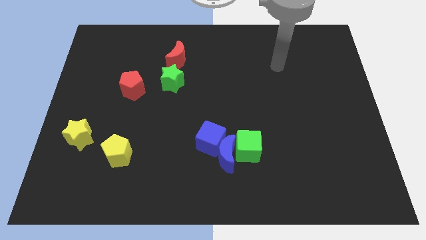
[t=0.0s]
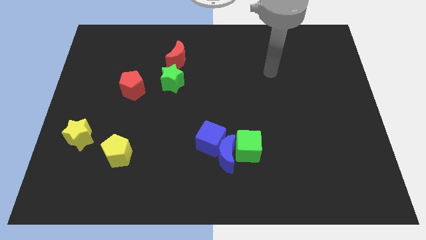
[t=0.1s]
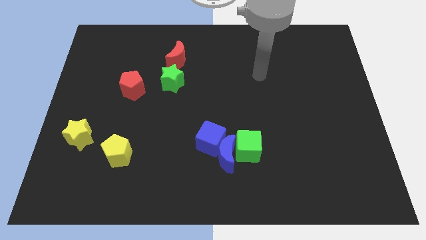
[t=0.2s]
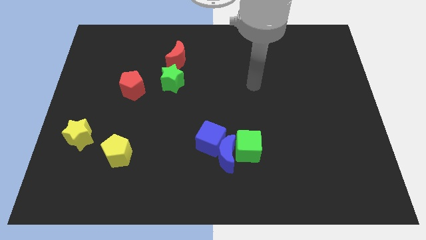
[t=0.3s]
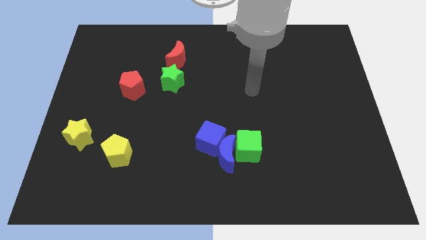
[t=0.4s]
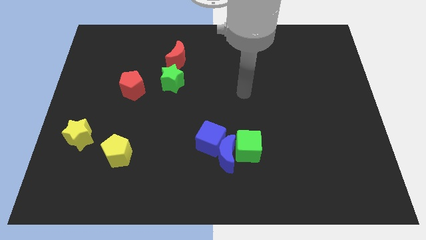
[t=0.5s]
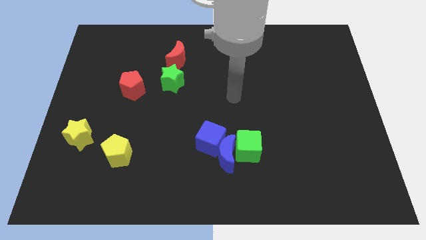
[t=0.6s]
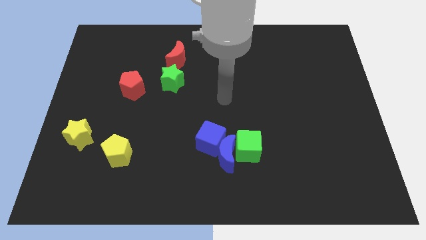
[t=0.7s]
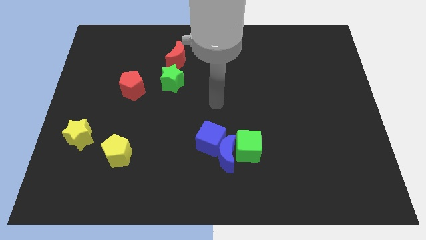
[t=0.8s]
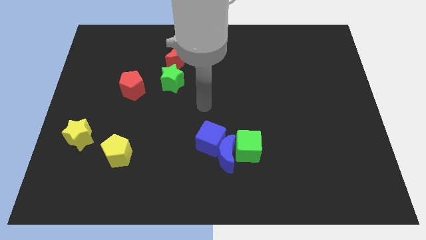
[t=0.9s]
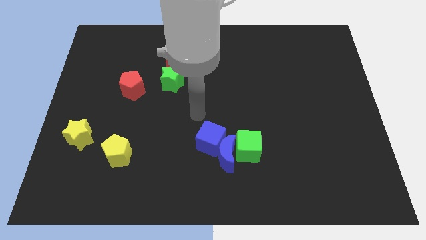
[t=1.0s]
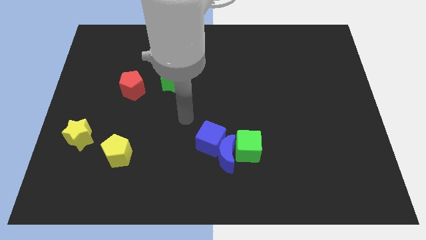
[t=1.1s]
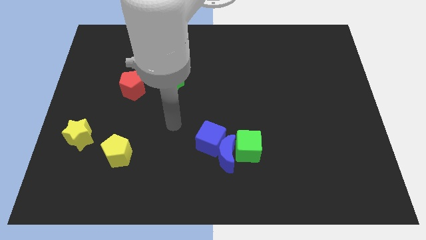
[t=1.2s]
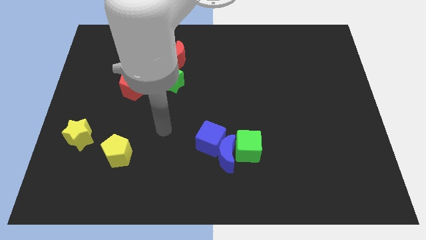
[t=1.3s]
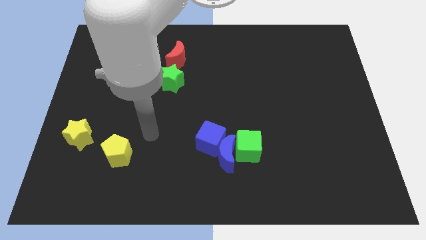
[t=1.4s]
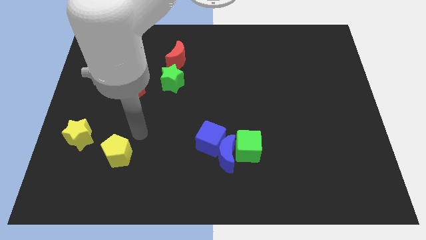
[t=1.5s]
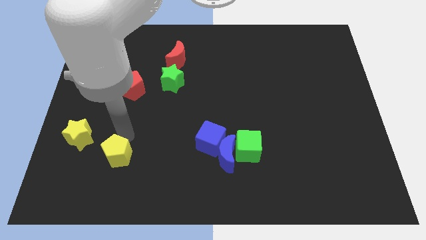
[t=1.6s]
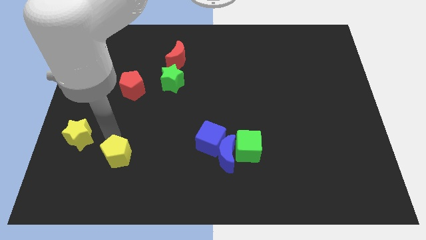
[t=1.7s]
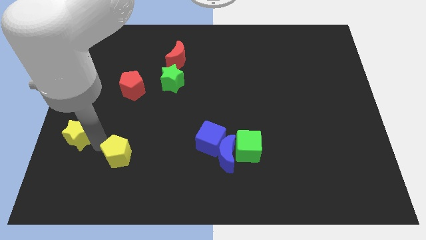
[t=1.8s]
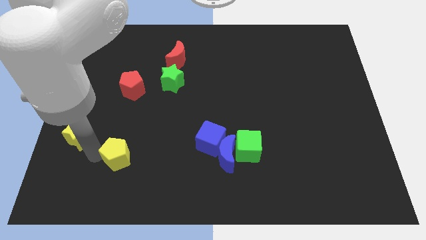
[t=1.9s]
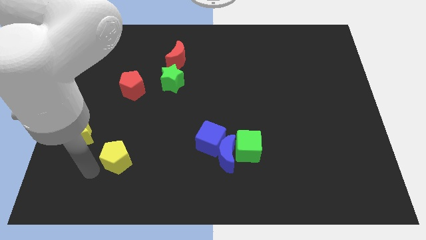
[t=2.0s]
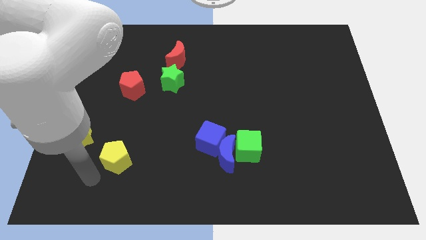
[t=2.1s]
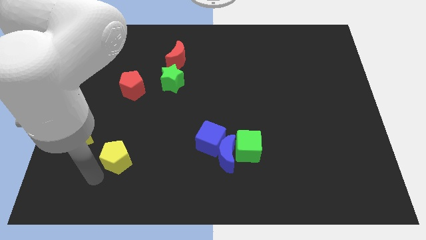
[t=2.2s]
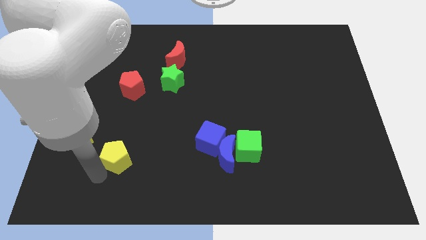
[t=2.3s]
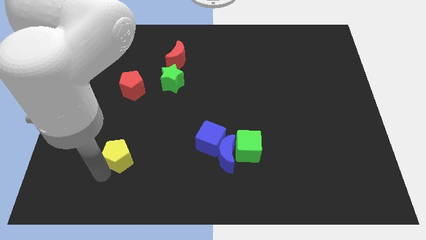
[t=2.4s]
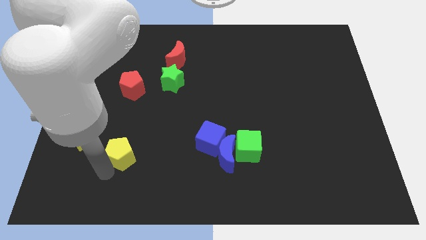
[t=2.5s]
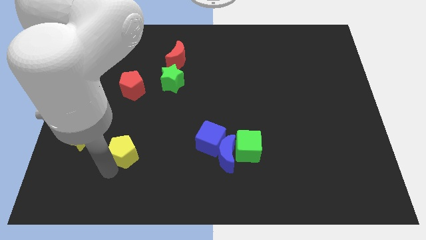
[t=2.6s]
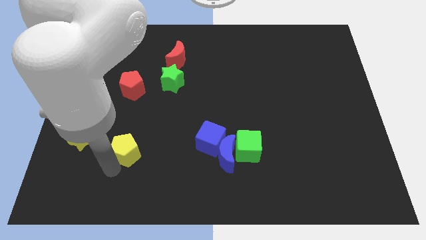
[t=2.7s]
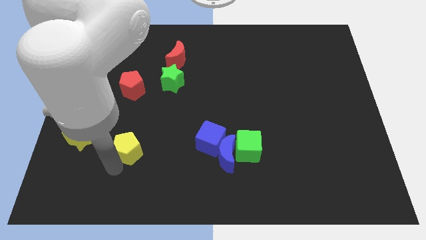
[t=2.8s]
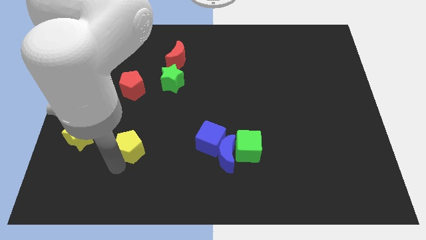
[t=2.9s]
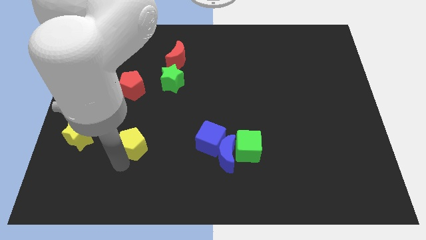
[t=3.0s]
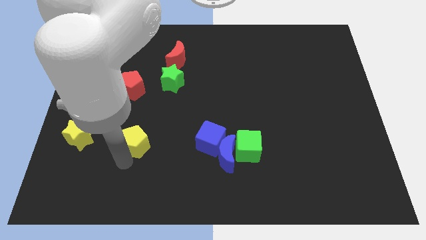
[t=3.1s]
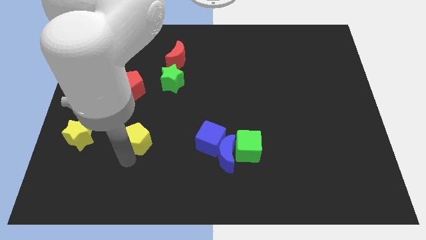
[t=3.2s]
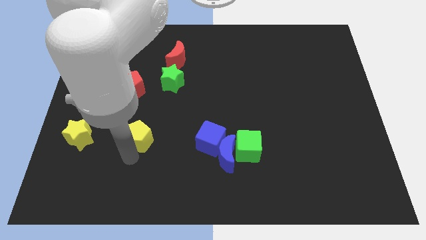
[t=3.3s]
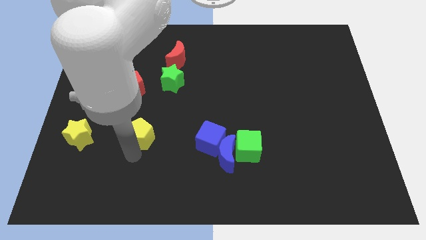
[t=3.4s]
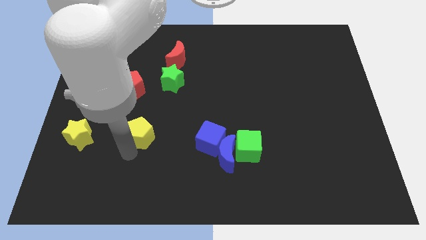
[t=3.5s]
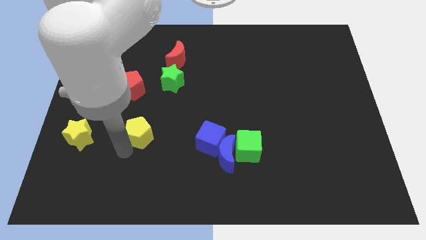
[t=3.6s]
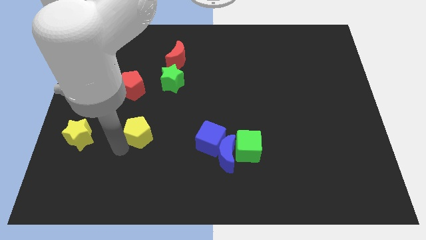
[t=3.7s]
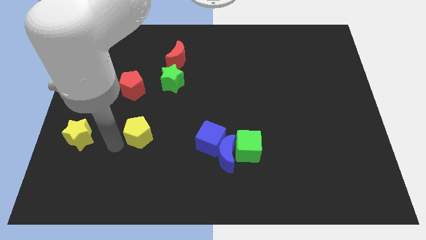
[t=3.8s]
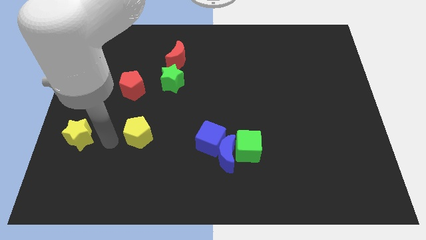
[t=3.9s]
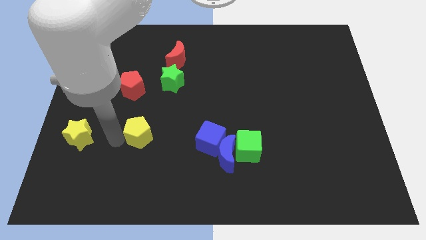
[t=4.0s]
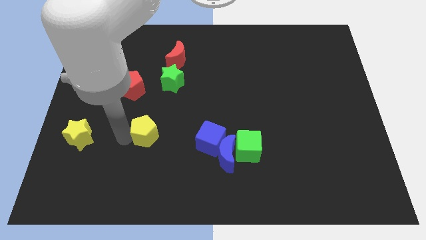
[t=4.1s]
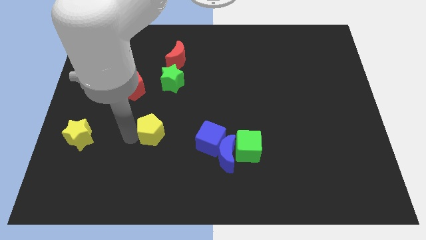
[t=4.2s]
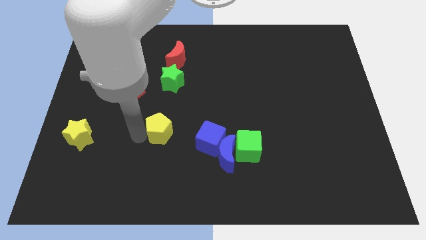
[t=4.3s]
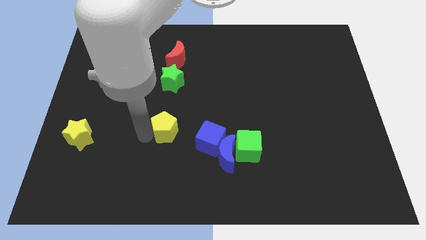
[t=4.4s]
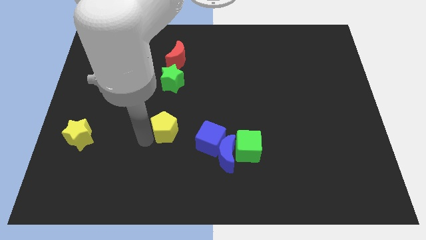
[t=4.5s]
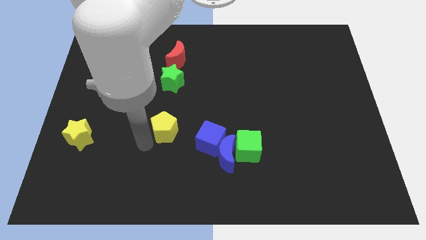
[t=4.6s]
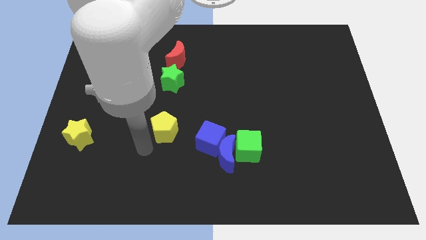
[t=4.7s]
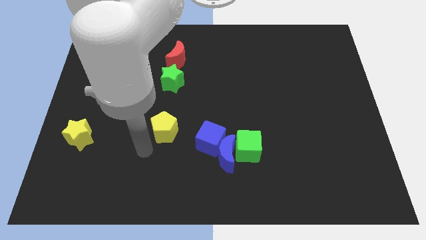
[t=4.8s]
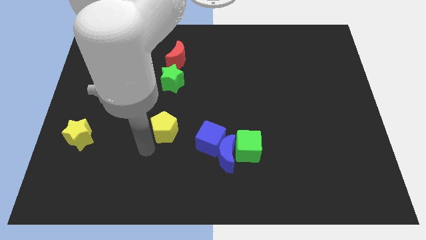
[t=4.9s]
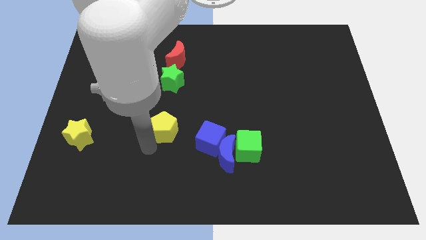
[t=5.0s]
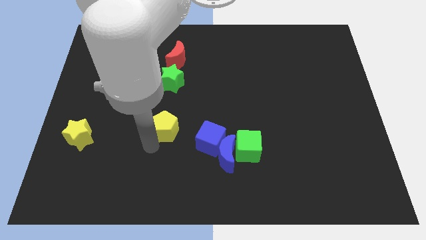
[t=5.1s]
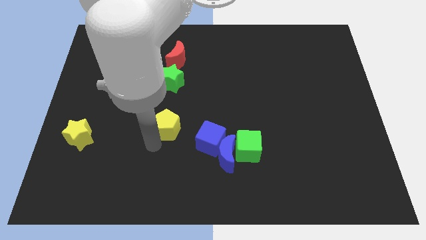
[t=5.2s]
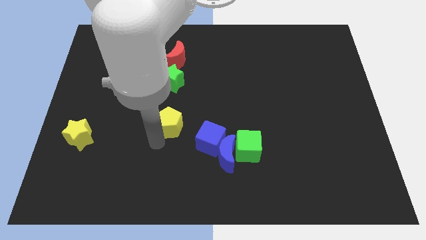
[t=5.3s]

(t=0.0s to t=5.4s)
slide the yellow pentagon to the center of the board

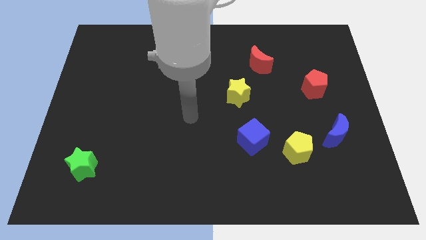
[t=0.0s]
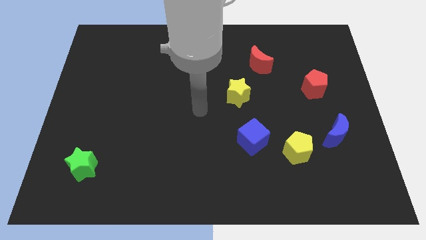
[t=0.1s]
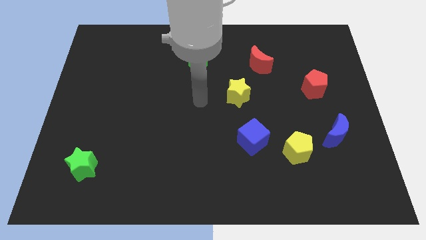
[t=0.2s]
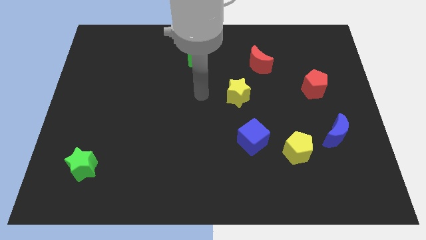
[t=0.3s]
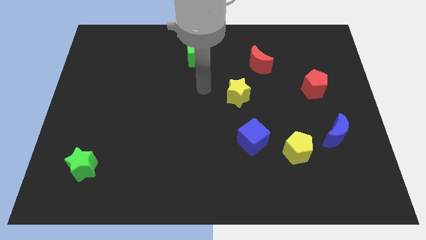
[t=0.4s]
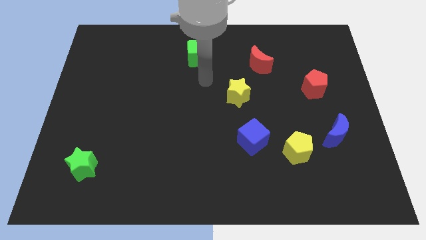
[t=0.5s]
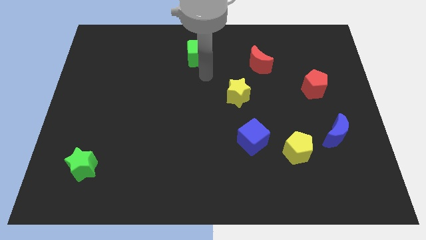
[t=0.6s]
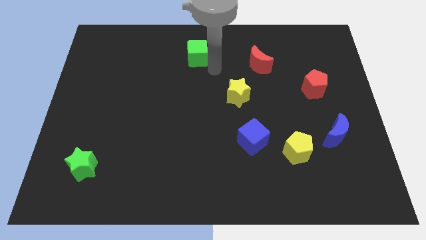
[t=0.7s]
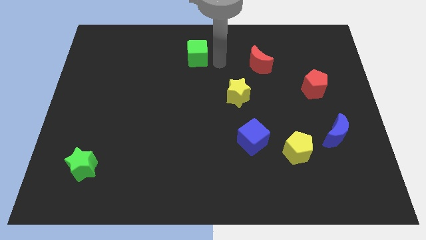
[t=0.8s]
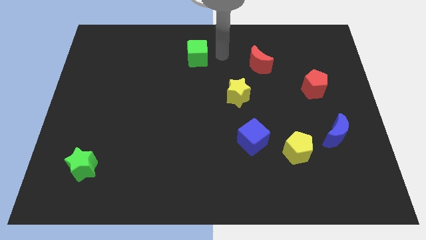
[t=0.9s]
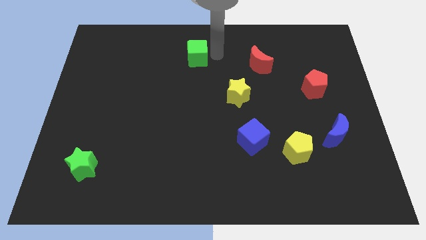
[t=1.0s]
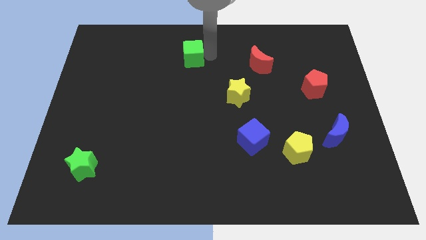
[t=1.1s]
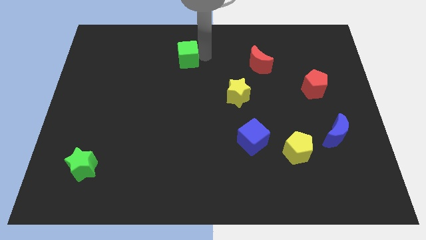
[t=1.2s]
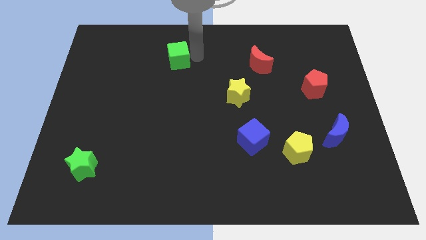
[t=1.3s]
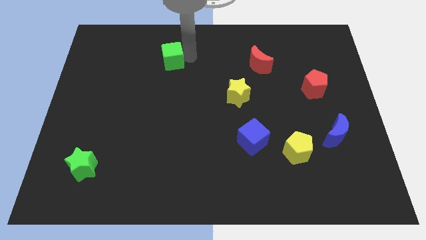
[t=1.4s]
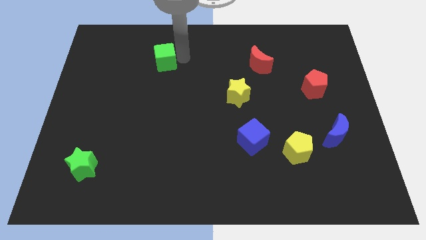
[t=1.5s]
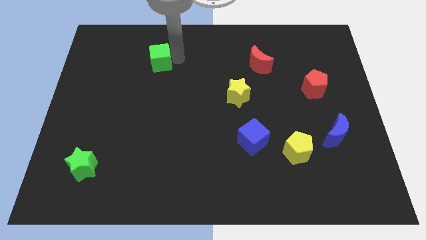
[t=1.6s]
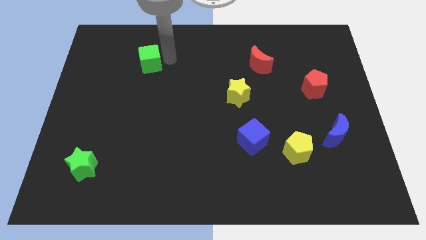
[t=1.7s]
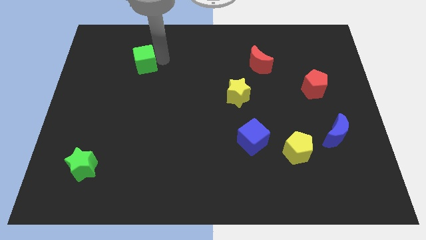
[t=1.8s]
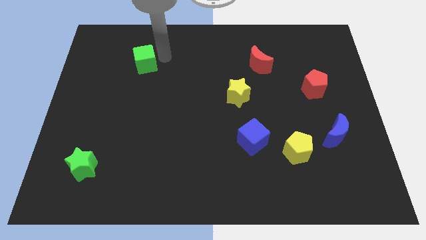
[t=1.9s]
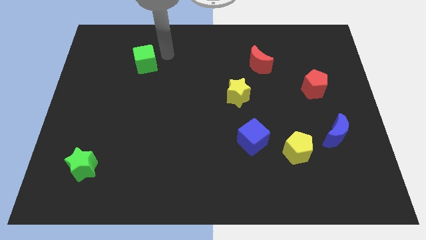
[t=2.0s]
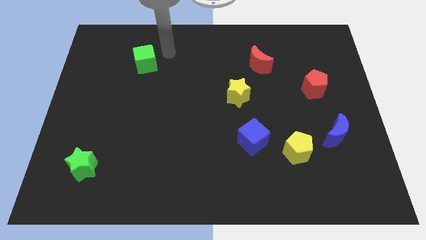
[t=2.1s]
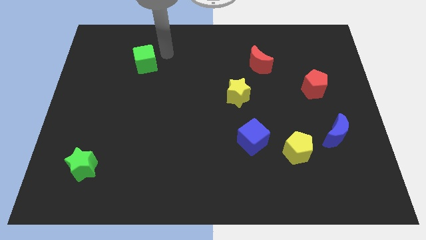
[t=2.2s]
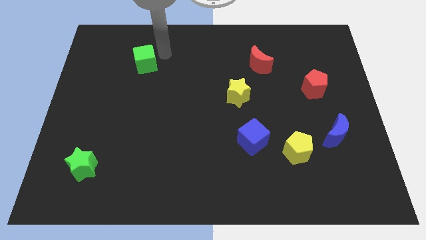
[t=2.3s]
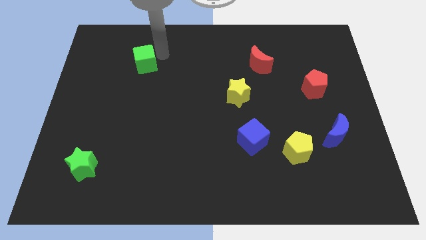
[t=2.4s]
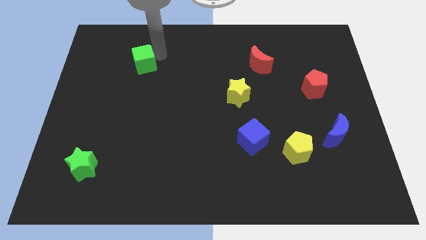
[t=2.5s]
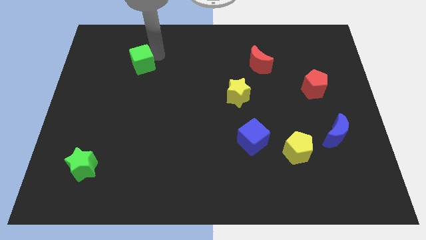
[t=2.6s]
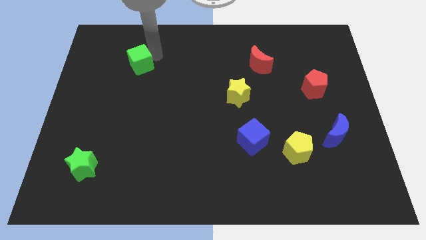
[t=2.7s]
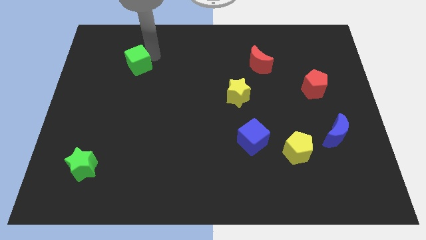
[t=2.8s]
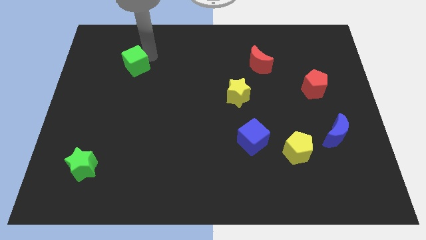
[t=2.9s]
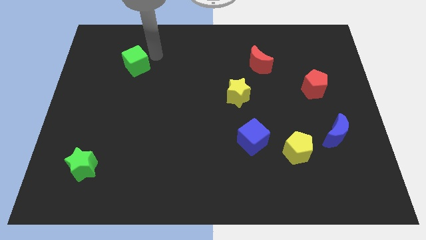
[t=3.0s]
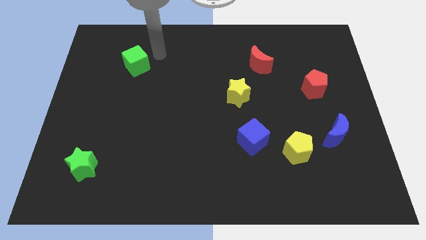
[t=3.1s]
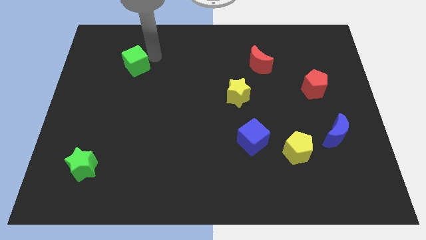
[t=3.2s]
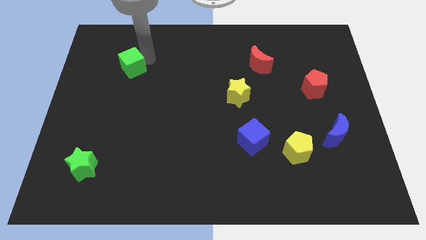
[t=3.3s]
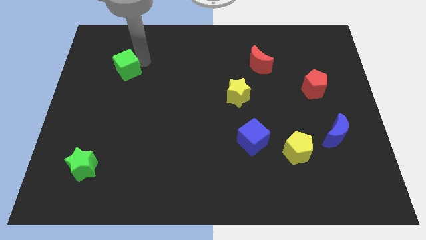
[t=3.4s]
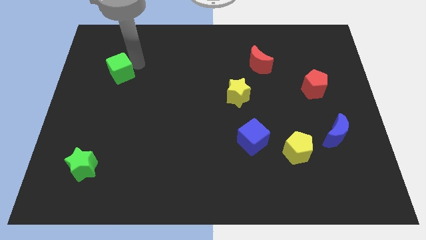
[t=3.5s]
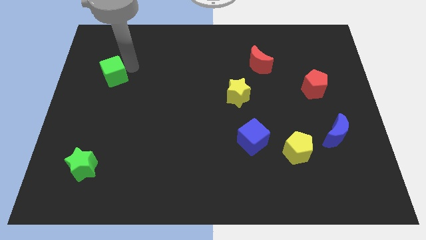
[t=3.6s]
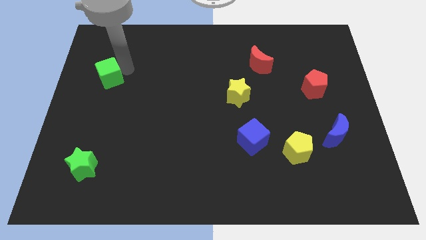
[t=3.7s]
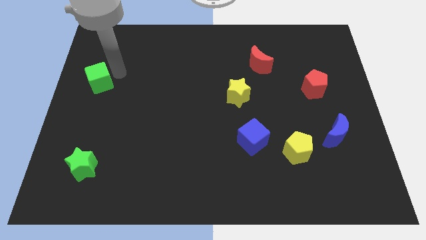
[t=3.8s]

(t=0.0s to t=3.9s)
put the green cube to the left side of the board
